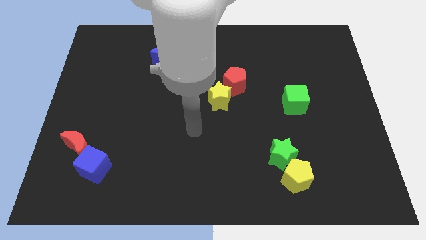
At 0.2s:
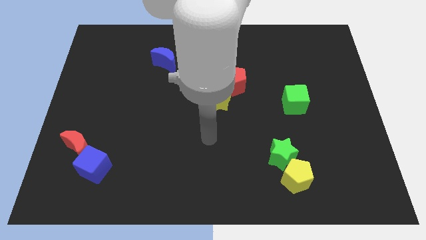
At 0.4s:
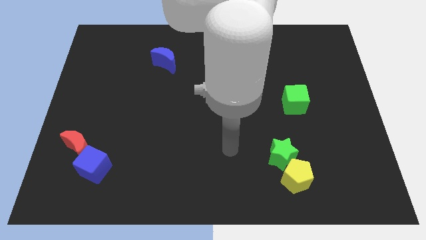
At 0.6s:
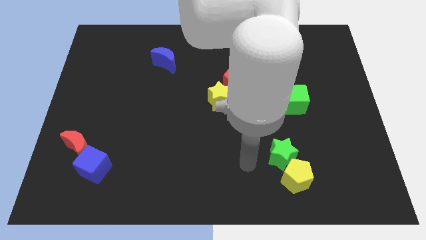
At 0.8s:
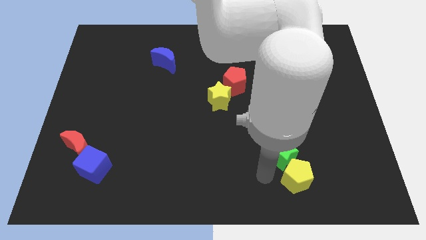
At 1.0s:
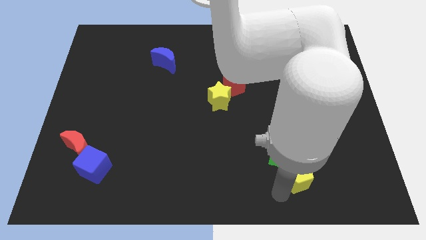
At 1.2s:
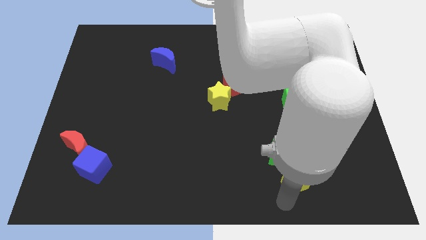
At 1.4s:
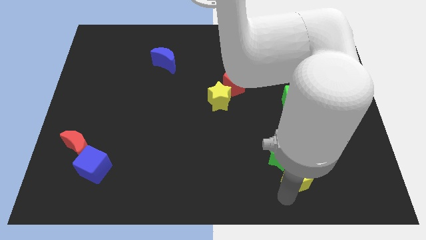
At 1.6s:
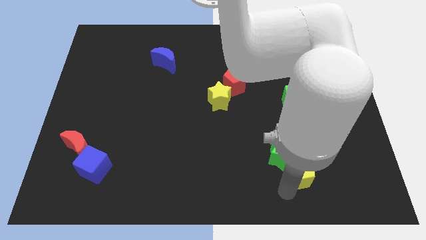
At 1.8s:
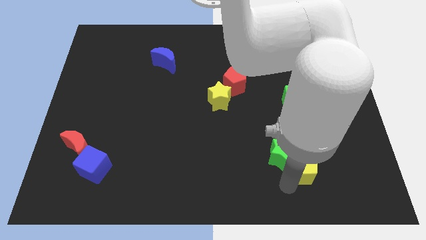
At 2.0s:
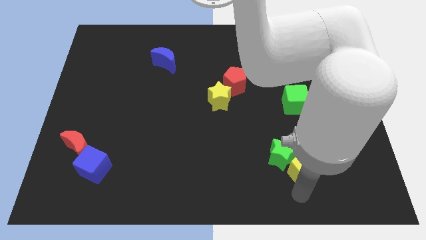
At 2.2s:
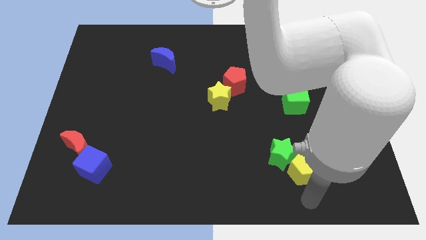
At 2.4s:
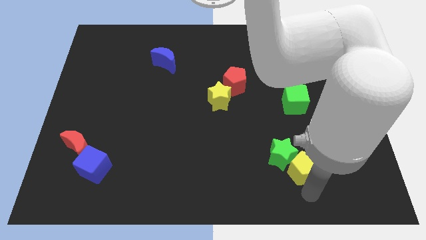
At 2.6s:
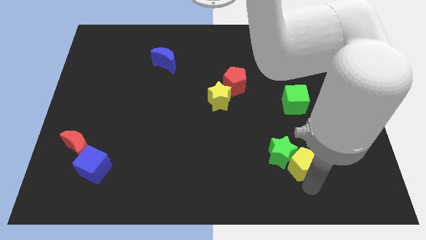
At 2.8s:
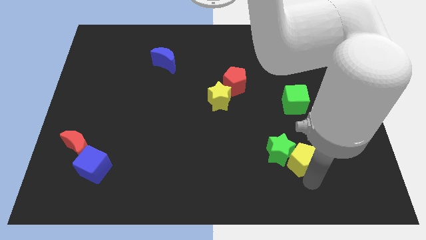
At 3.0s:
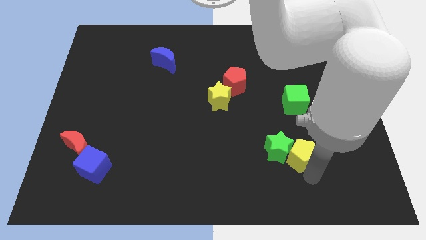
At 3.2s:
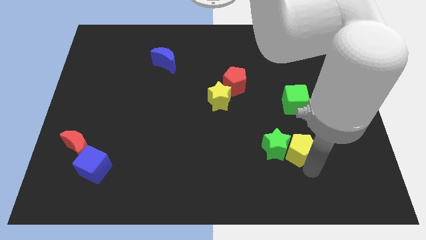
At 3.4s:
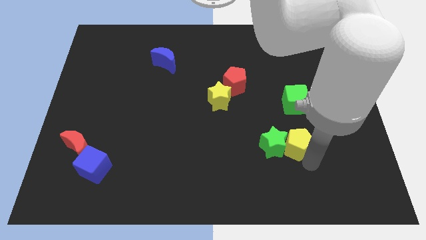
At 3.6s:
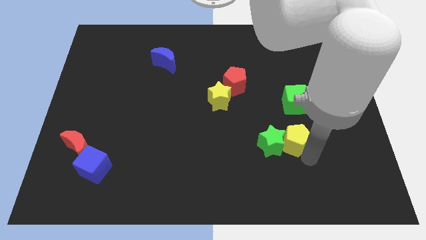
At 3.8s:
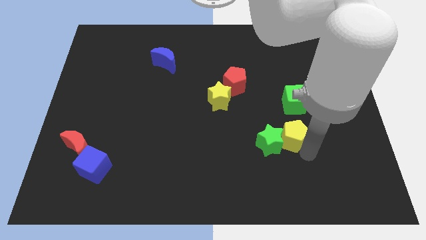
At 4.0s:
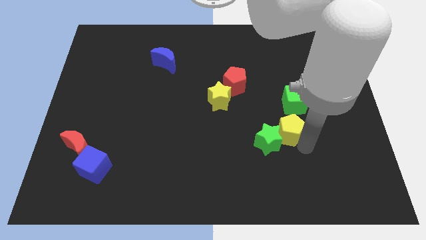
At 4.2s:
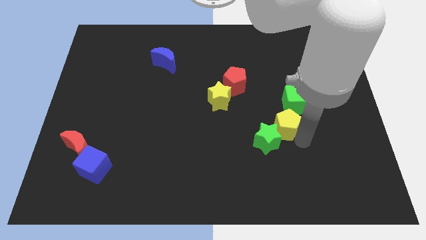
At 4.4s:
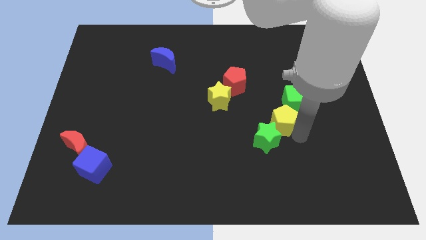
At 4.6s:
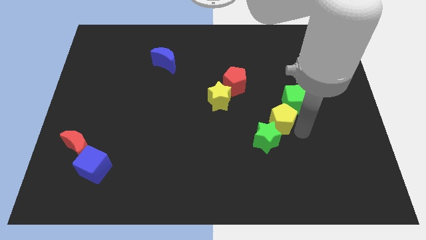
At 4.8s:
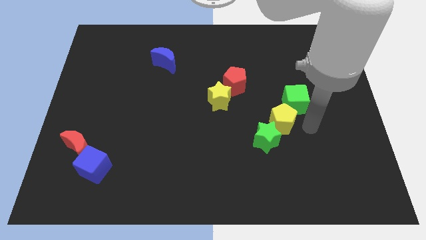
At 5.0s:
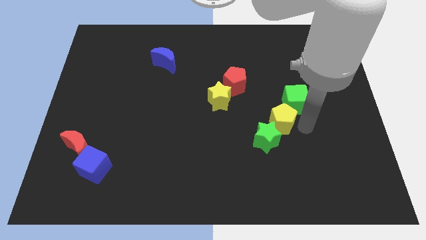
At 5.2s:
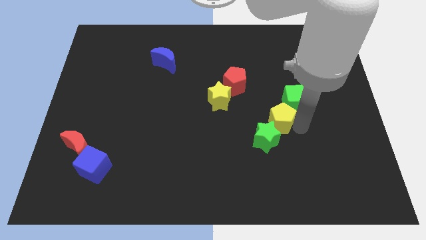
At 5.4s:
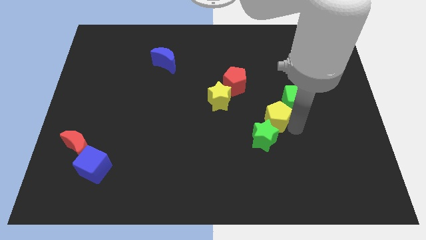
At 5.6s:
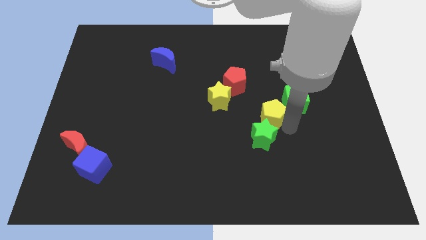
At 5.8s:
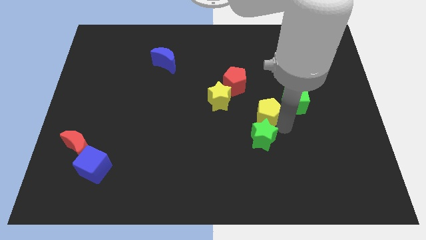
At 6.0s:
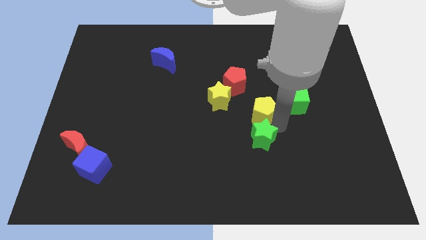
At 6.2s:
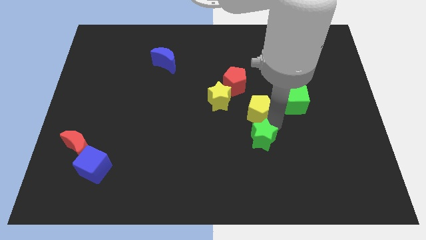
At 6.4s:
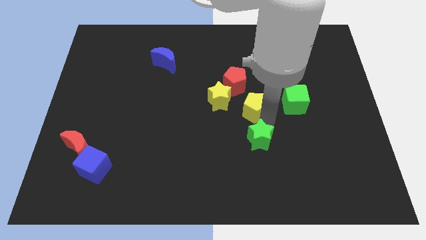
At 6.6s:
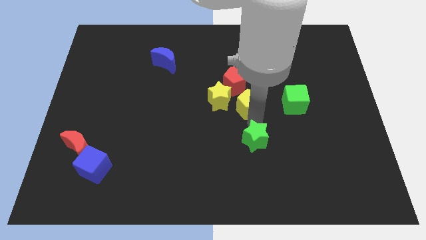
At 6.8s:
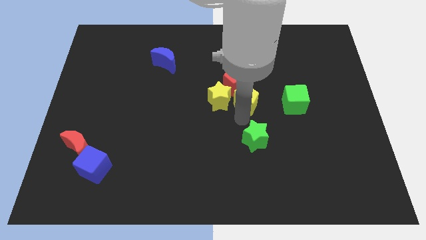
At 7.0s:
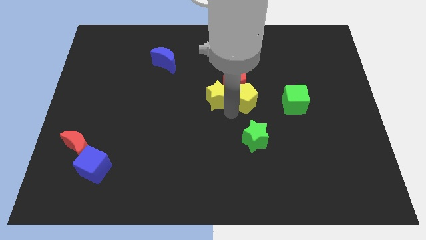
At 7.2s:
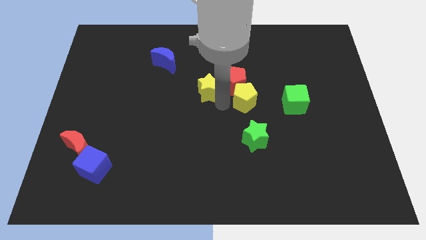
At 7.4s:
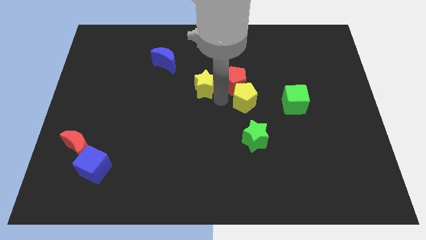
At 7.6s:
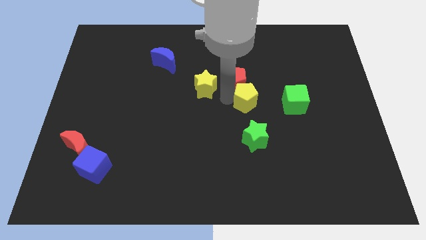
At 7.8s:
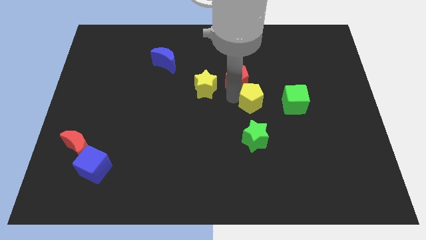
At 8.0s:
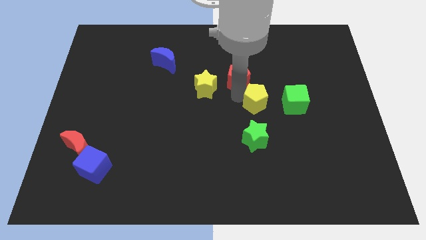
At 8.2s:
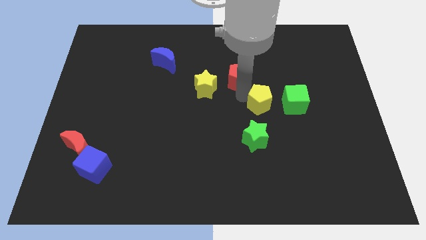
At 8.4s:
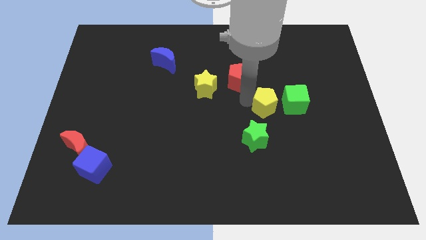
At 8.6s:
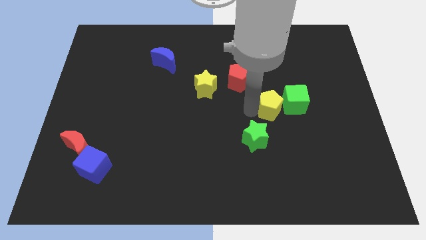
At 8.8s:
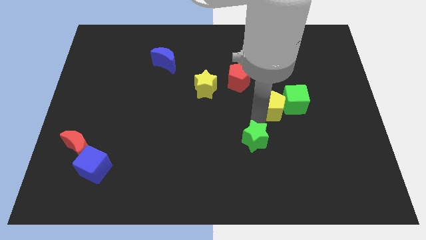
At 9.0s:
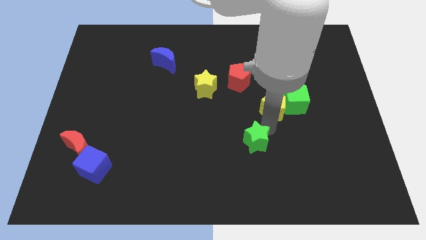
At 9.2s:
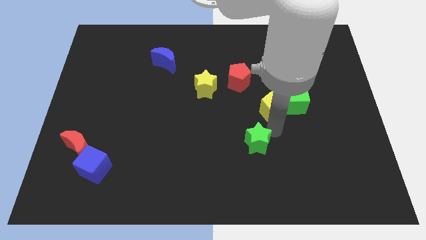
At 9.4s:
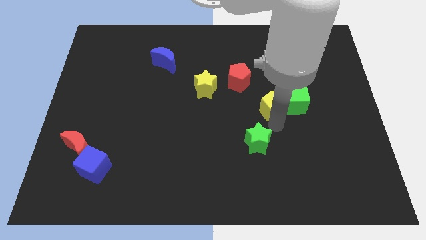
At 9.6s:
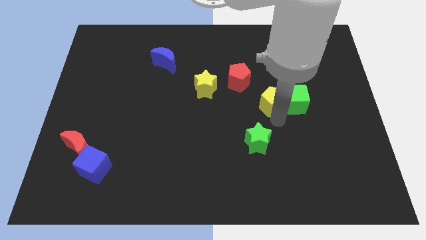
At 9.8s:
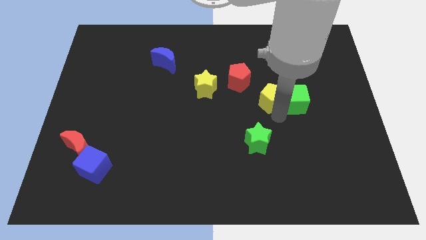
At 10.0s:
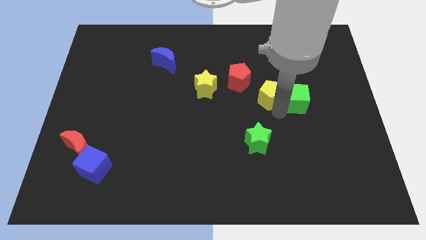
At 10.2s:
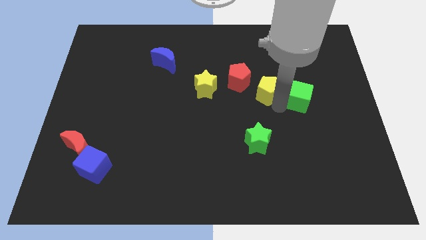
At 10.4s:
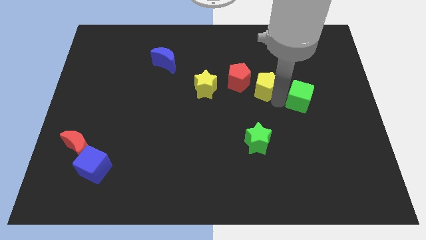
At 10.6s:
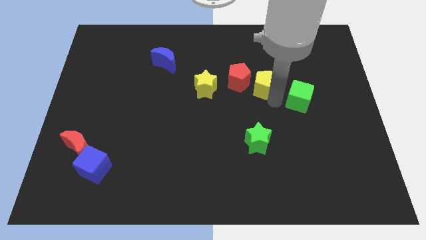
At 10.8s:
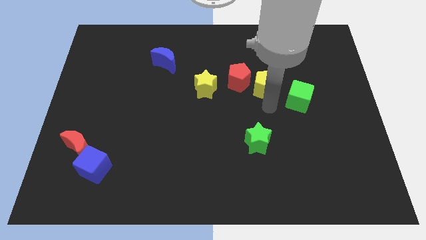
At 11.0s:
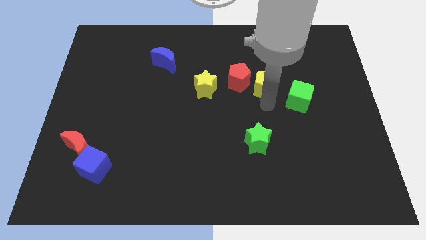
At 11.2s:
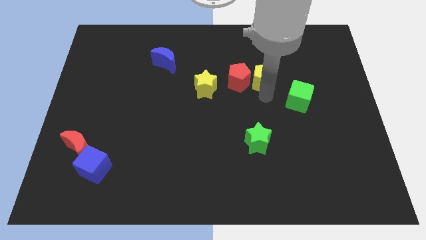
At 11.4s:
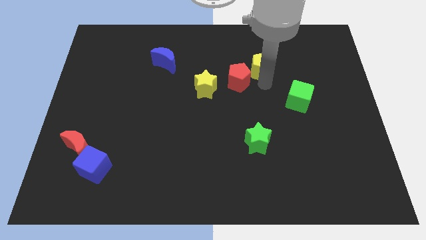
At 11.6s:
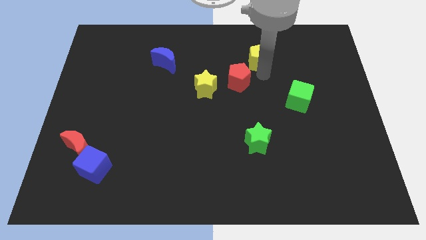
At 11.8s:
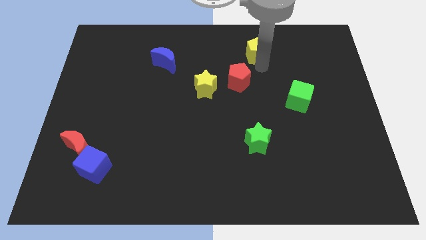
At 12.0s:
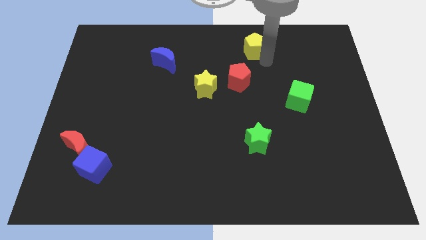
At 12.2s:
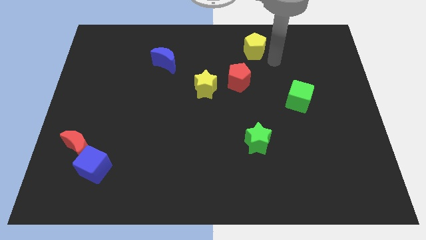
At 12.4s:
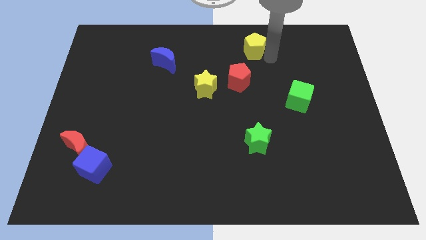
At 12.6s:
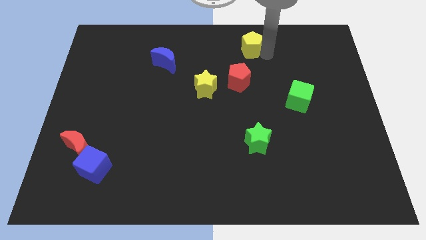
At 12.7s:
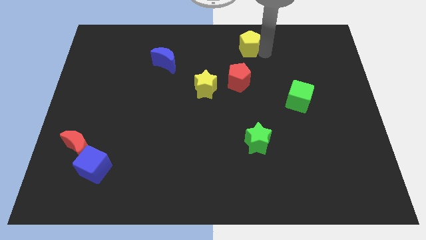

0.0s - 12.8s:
move the yellow pentagon to the top

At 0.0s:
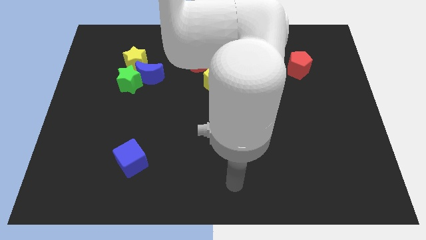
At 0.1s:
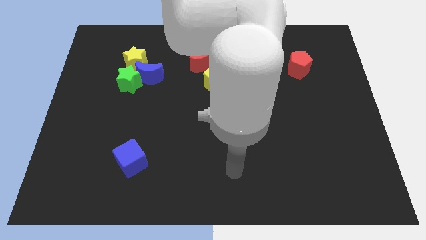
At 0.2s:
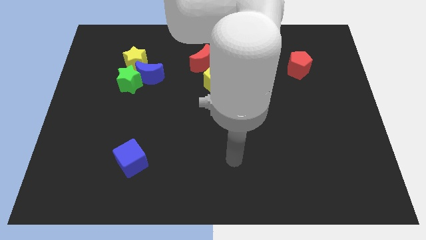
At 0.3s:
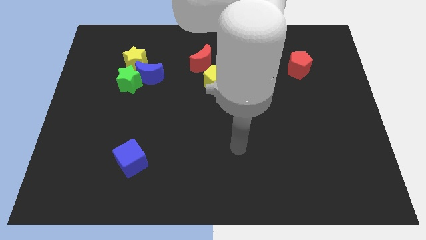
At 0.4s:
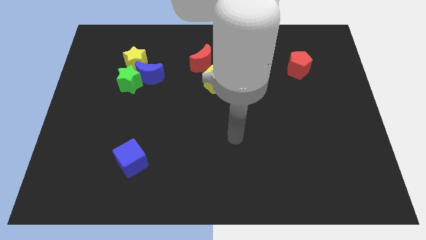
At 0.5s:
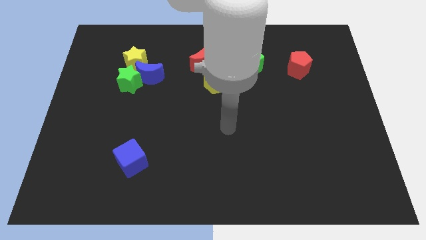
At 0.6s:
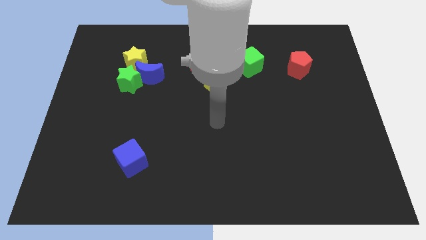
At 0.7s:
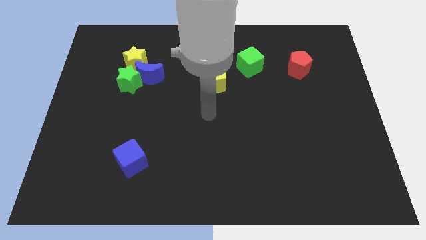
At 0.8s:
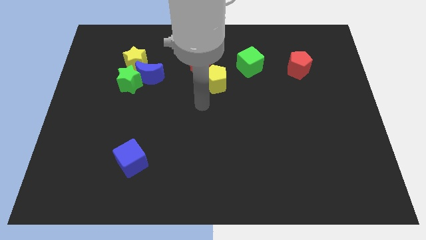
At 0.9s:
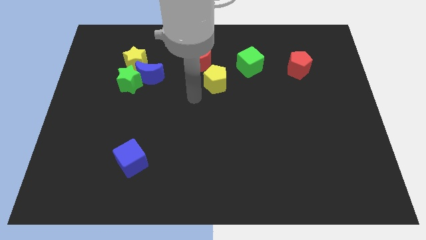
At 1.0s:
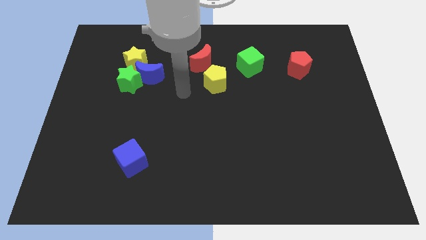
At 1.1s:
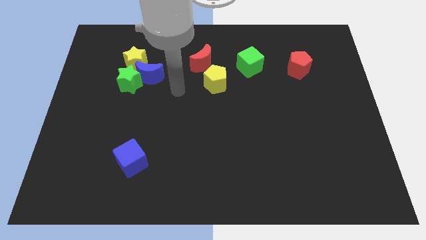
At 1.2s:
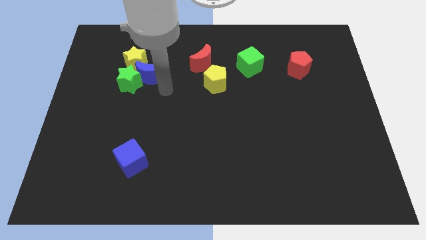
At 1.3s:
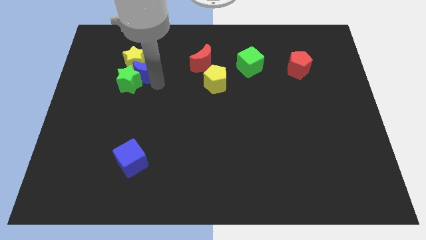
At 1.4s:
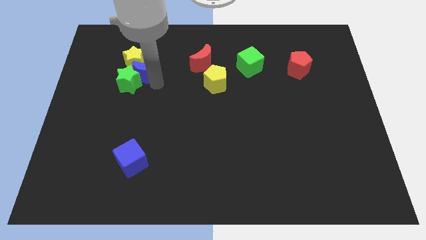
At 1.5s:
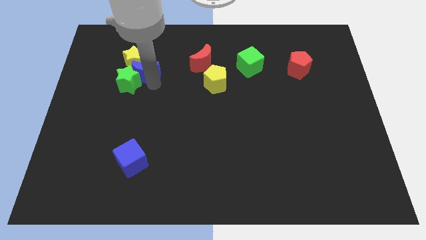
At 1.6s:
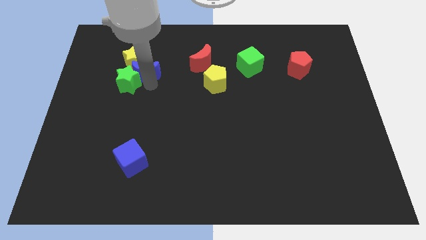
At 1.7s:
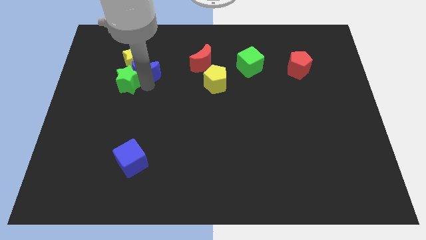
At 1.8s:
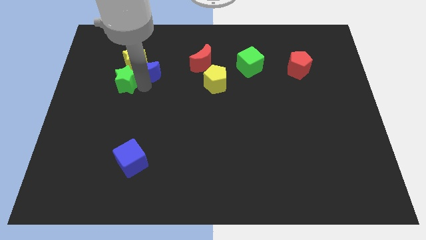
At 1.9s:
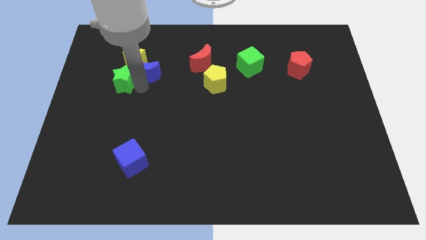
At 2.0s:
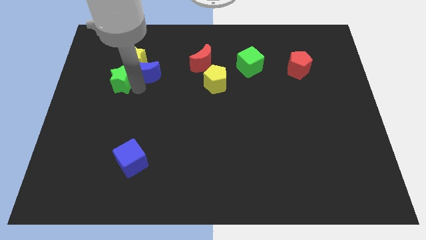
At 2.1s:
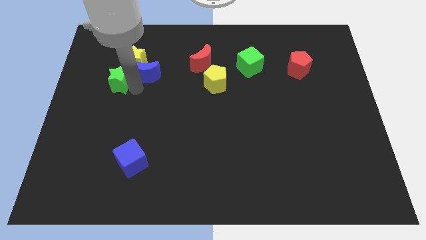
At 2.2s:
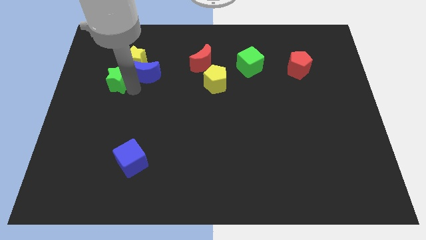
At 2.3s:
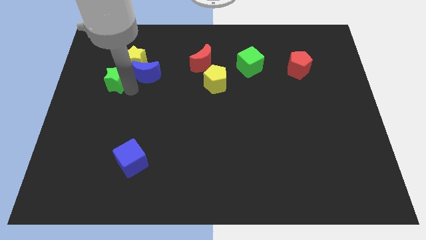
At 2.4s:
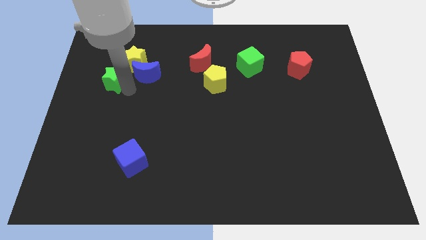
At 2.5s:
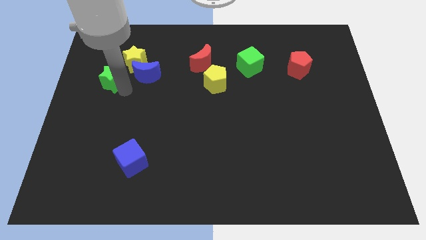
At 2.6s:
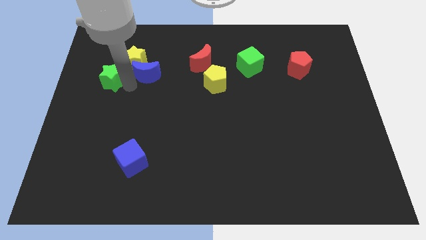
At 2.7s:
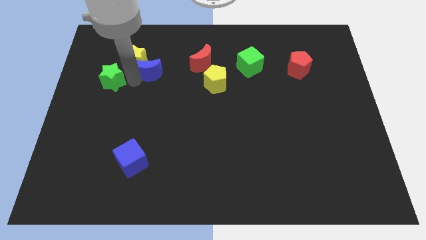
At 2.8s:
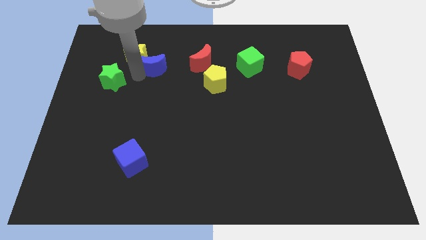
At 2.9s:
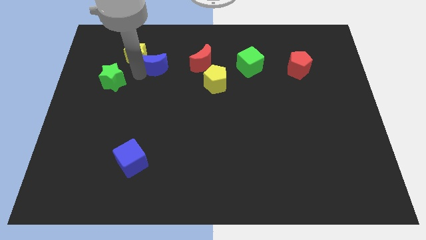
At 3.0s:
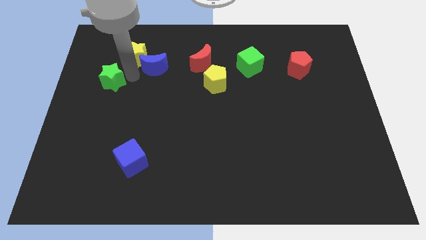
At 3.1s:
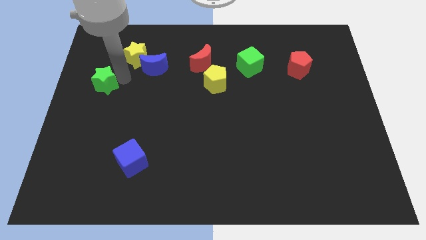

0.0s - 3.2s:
move the green star to the left side
